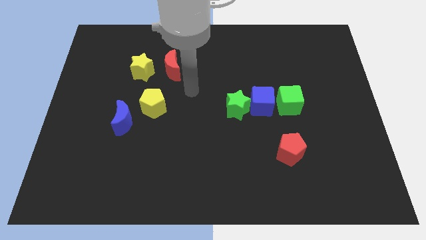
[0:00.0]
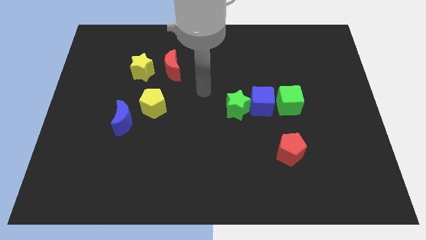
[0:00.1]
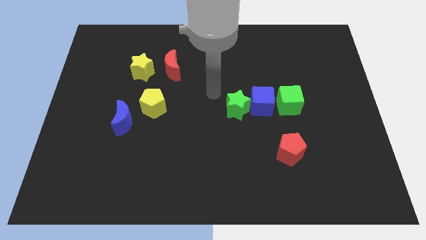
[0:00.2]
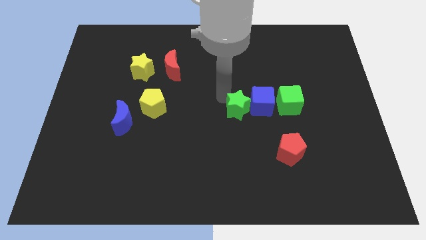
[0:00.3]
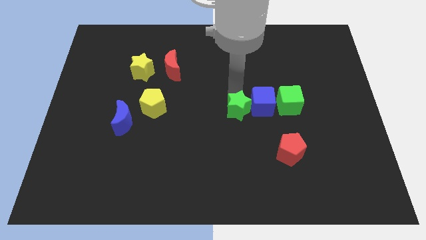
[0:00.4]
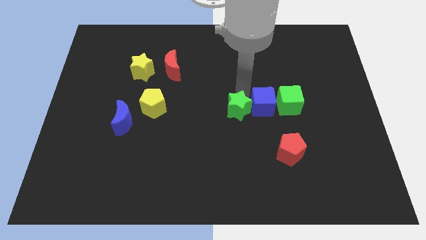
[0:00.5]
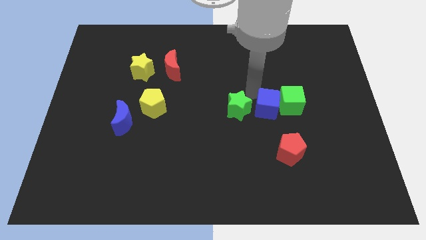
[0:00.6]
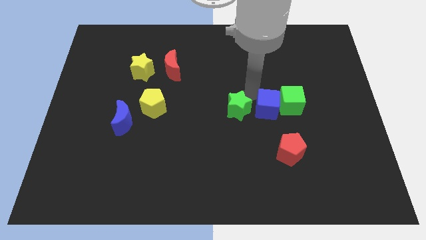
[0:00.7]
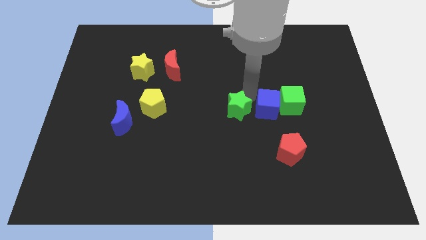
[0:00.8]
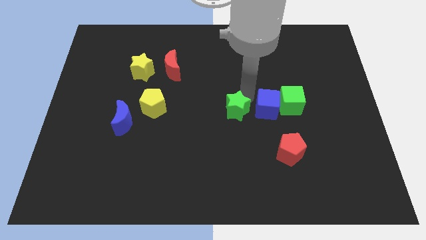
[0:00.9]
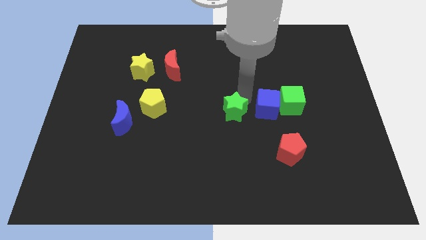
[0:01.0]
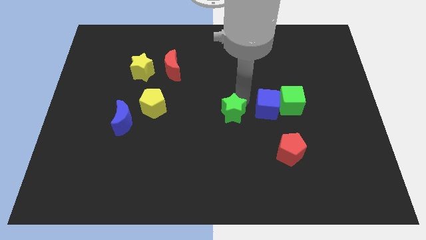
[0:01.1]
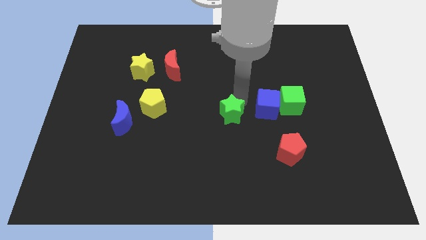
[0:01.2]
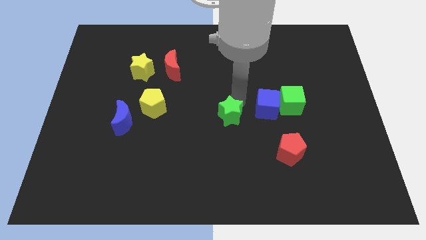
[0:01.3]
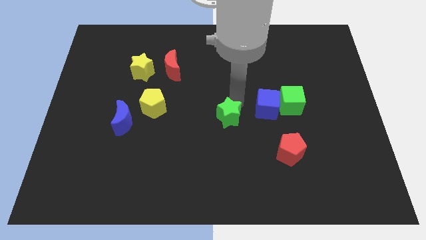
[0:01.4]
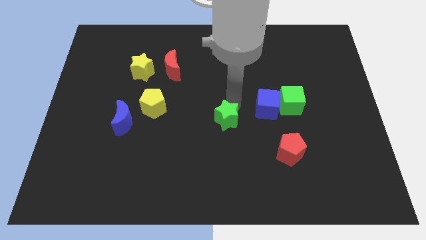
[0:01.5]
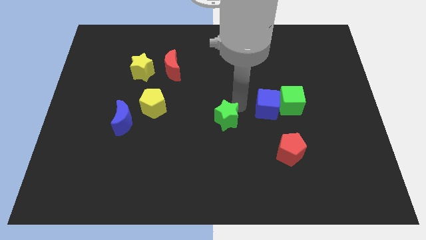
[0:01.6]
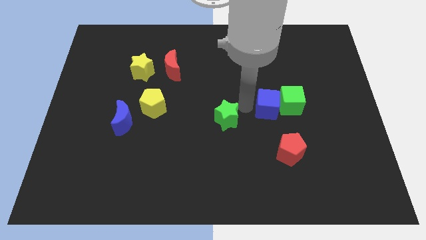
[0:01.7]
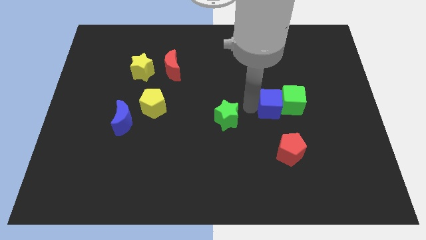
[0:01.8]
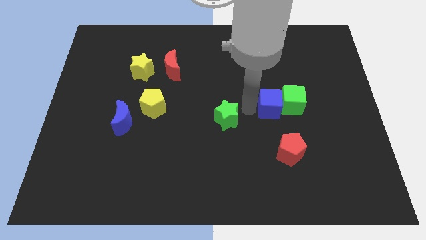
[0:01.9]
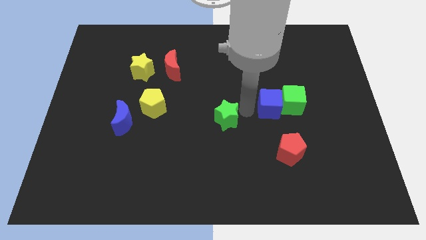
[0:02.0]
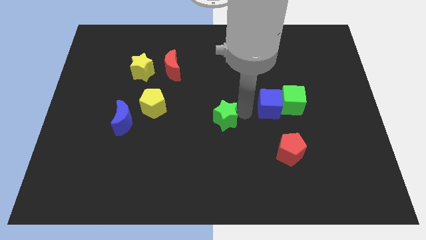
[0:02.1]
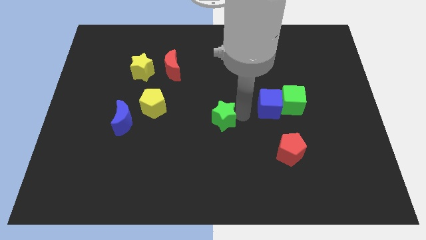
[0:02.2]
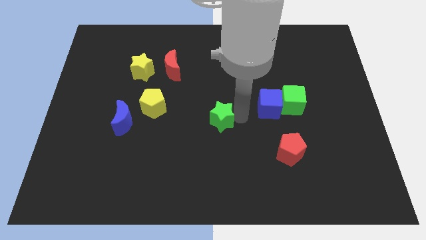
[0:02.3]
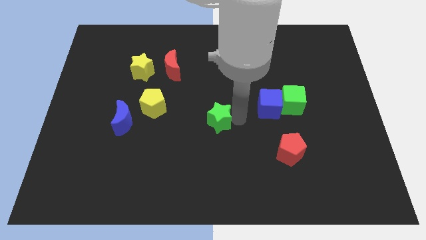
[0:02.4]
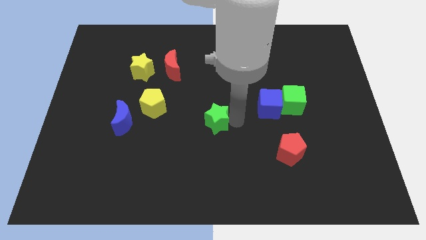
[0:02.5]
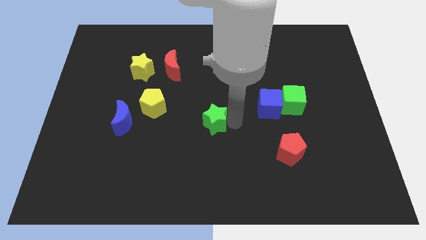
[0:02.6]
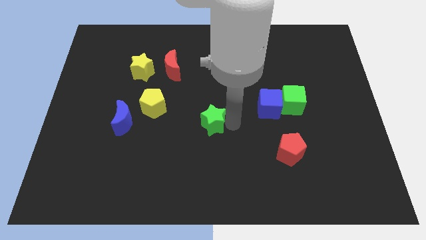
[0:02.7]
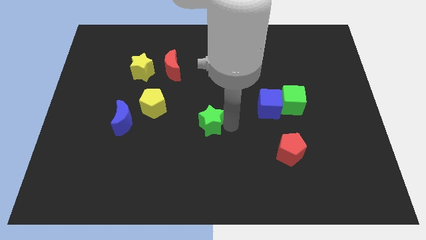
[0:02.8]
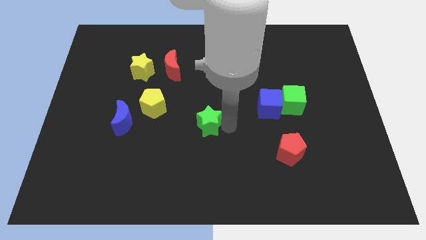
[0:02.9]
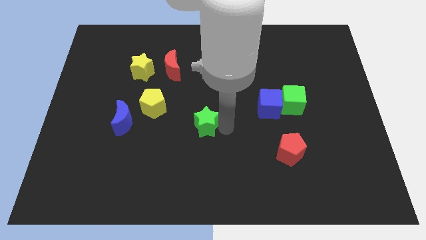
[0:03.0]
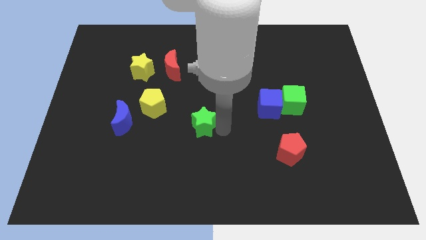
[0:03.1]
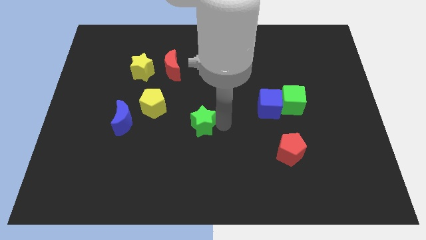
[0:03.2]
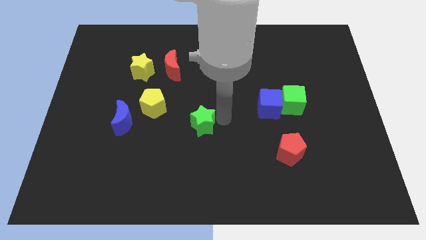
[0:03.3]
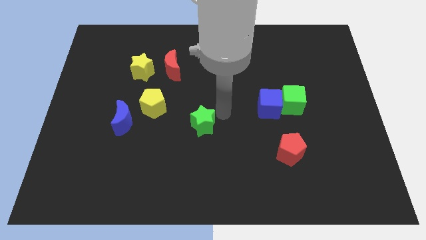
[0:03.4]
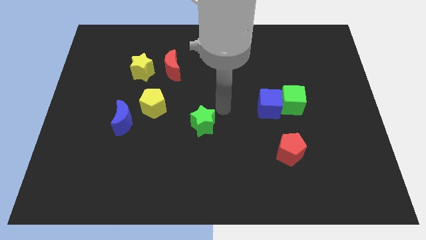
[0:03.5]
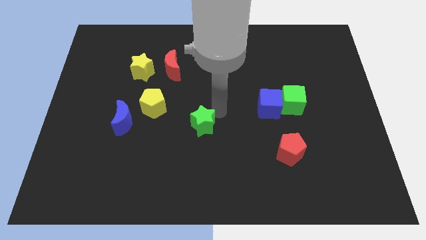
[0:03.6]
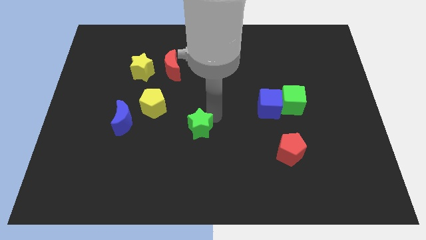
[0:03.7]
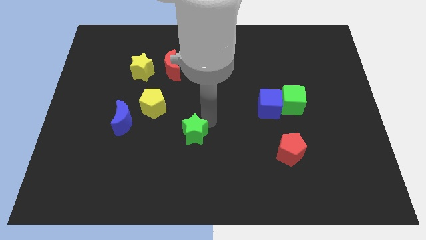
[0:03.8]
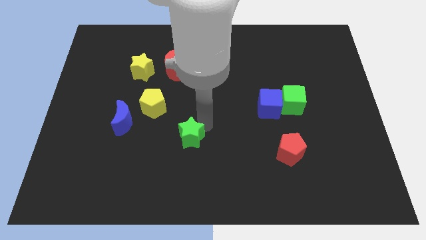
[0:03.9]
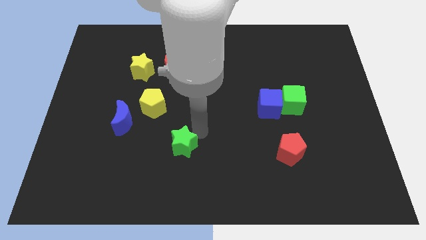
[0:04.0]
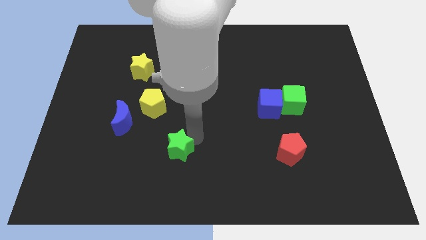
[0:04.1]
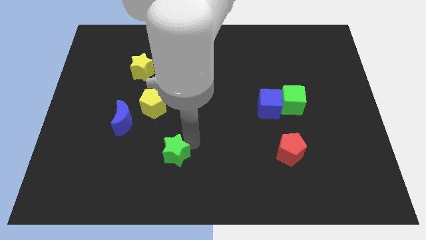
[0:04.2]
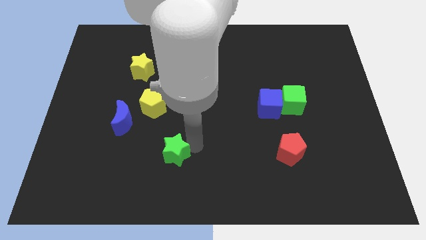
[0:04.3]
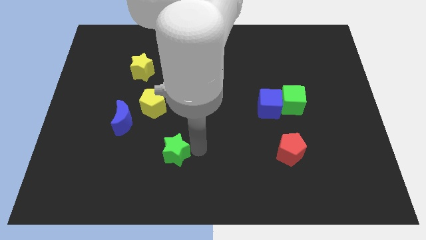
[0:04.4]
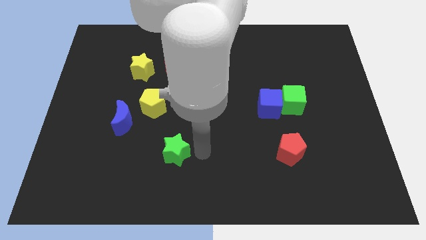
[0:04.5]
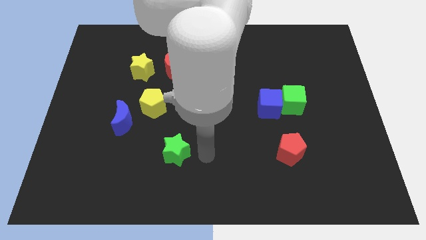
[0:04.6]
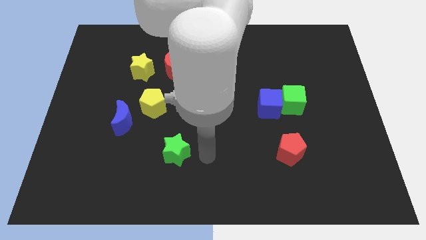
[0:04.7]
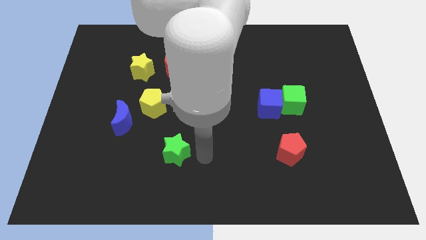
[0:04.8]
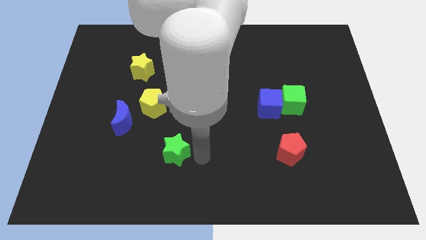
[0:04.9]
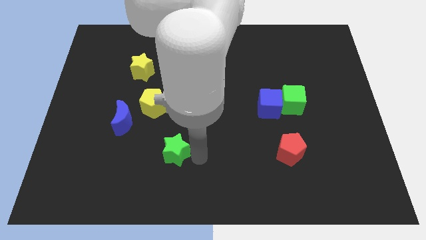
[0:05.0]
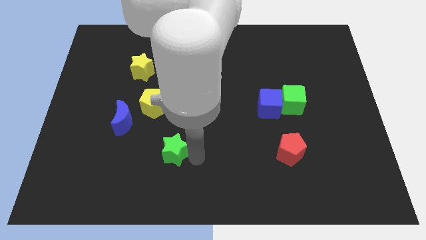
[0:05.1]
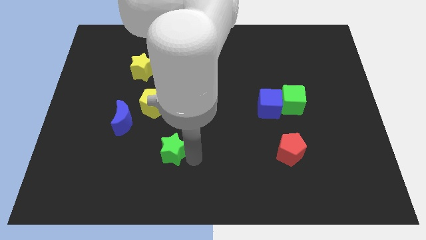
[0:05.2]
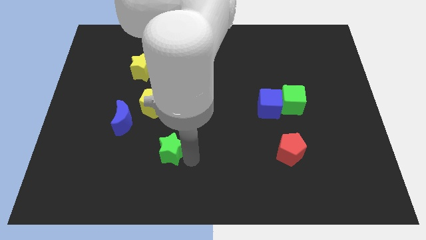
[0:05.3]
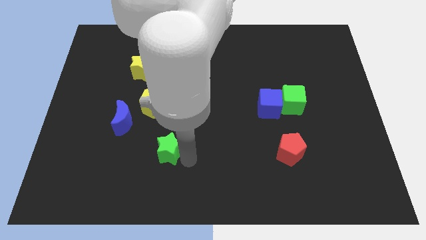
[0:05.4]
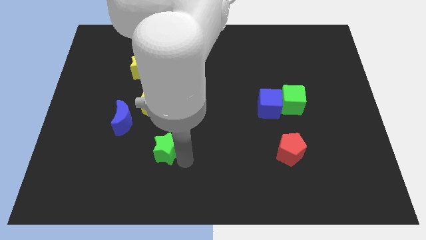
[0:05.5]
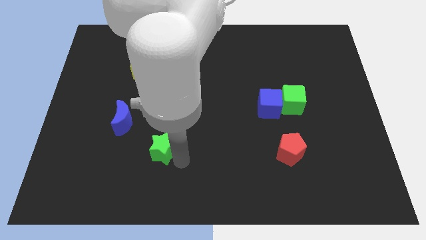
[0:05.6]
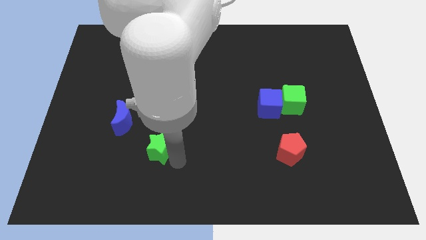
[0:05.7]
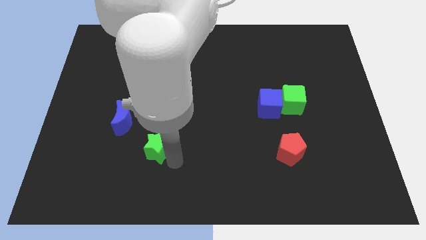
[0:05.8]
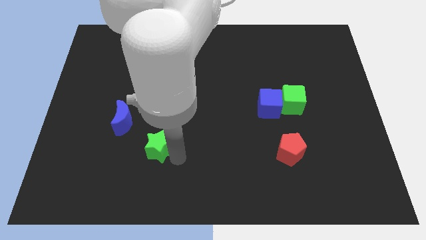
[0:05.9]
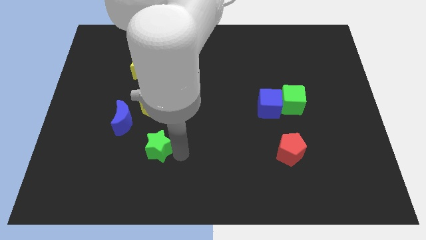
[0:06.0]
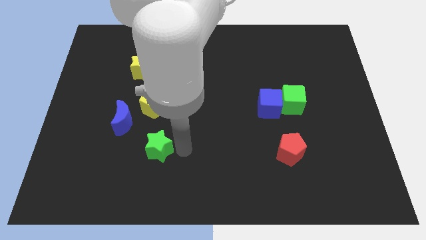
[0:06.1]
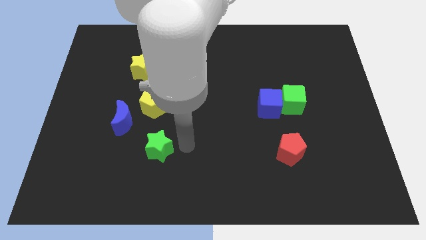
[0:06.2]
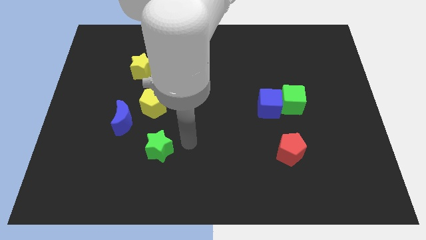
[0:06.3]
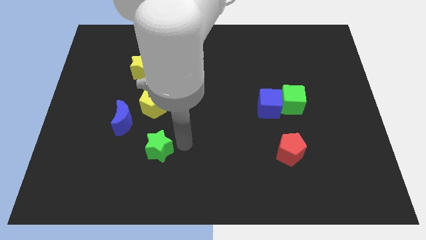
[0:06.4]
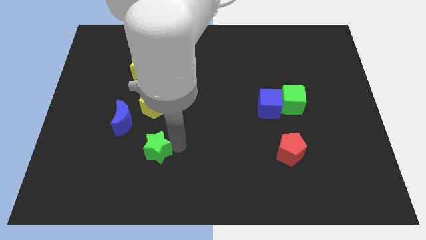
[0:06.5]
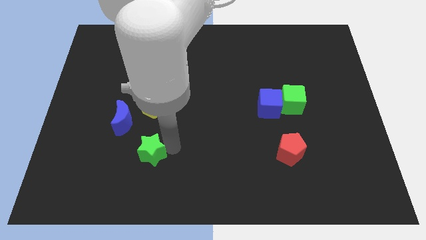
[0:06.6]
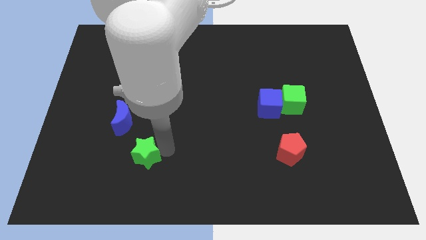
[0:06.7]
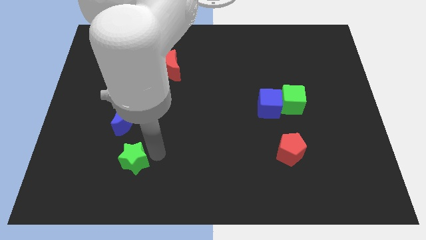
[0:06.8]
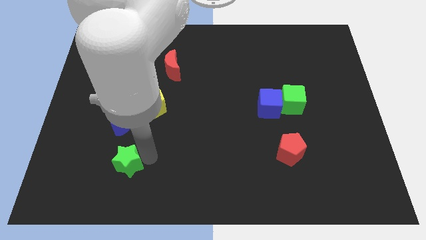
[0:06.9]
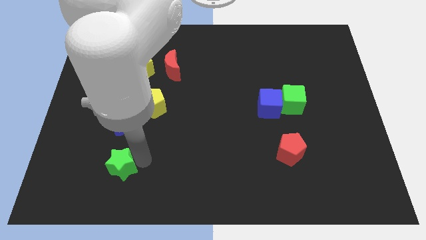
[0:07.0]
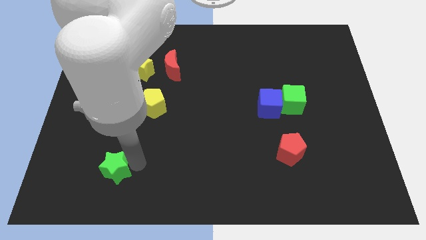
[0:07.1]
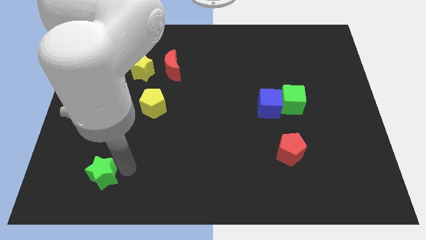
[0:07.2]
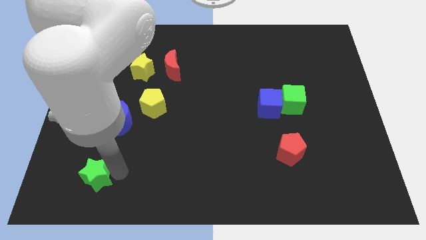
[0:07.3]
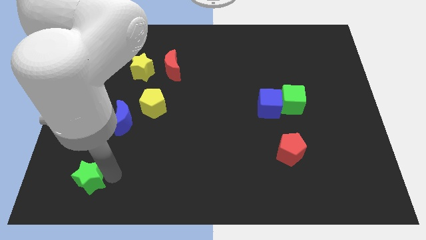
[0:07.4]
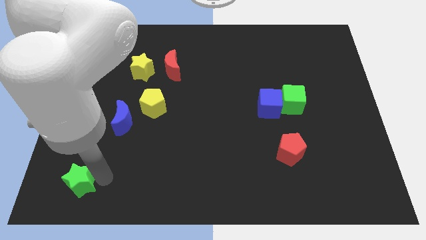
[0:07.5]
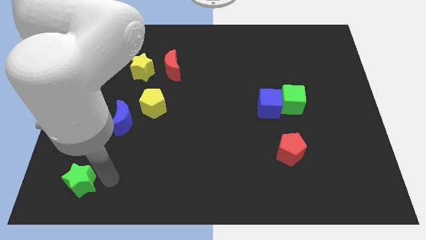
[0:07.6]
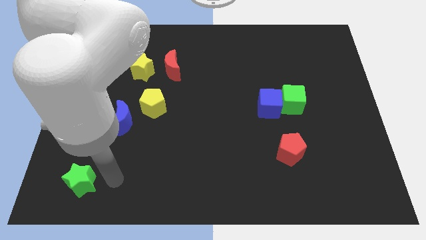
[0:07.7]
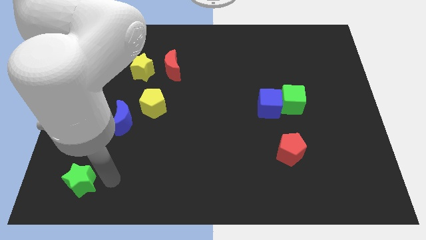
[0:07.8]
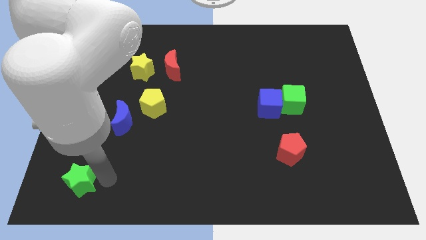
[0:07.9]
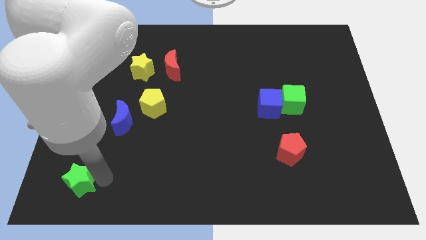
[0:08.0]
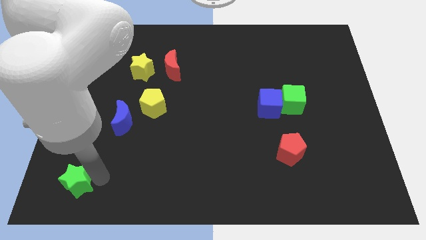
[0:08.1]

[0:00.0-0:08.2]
move the green star to the bottom left corner
